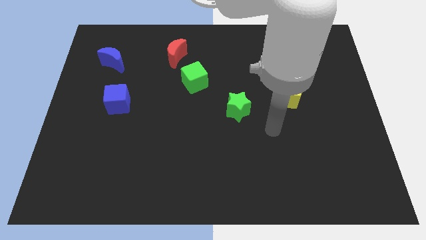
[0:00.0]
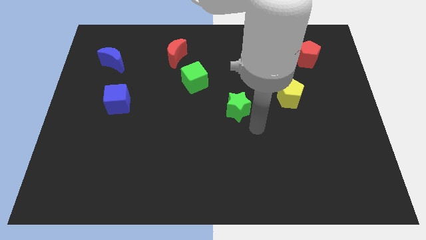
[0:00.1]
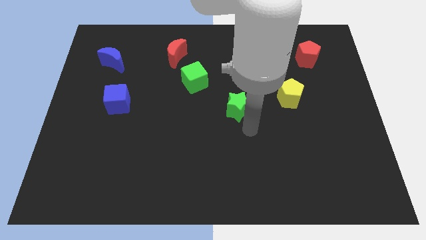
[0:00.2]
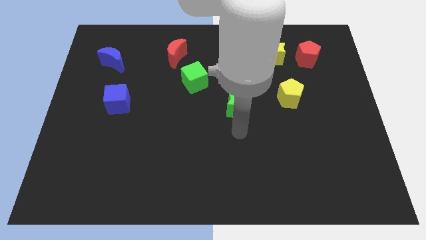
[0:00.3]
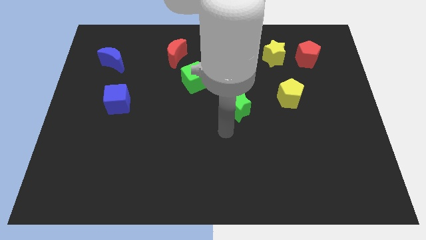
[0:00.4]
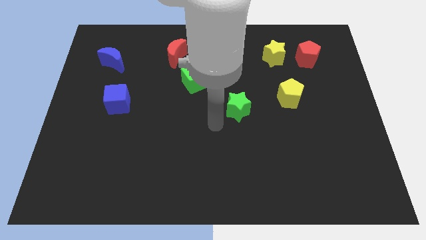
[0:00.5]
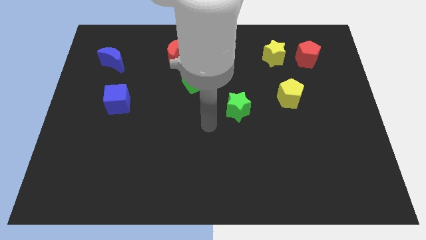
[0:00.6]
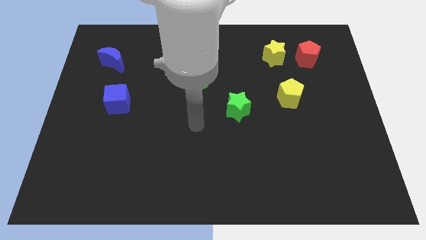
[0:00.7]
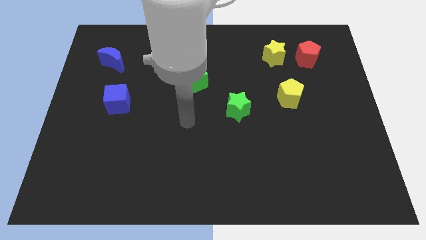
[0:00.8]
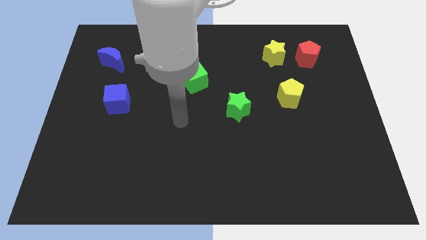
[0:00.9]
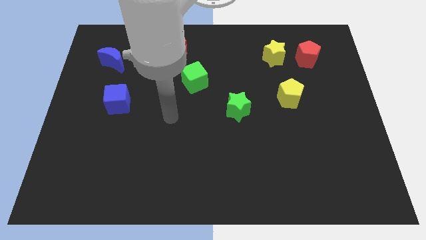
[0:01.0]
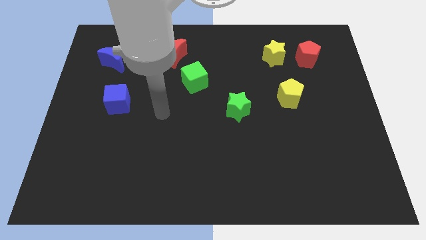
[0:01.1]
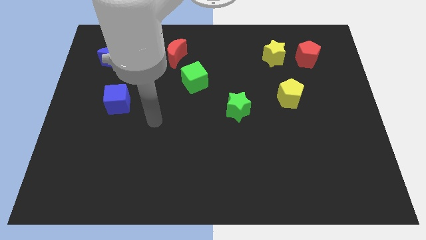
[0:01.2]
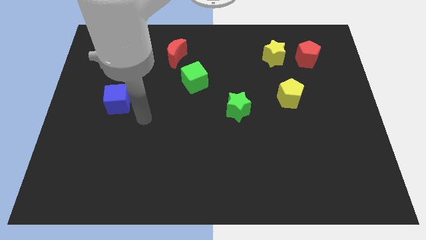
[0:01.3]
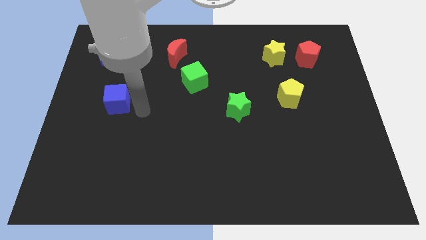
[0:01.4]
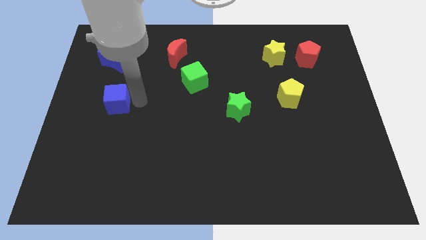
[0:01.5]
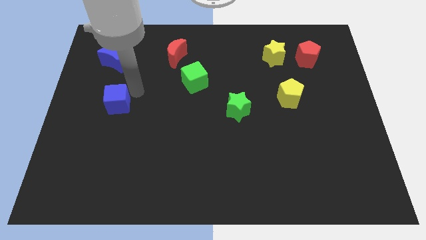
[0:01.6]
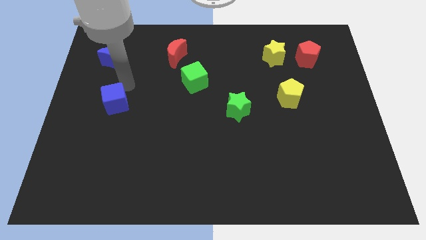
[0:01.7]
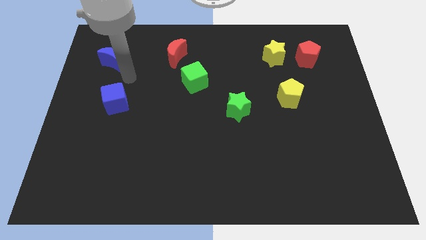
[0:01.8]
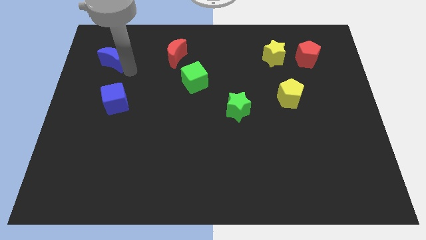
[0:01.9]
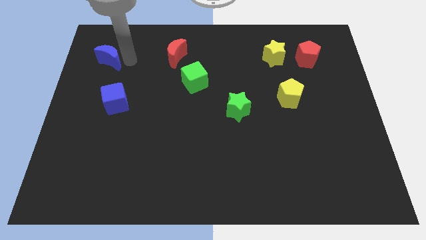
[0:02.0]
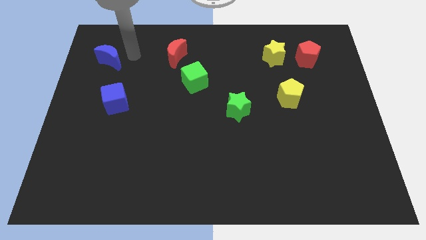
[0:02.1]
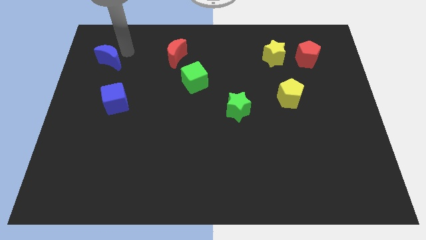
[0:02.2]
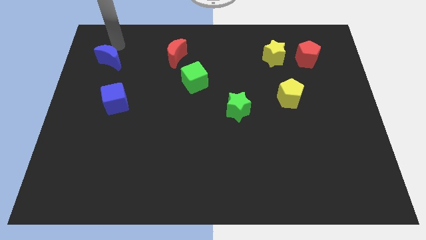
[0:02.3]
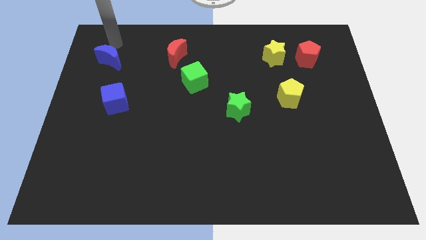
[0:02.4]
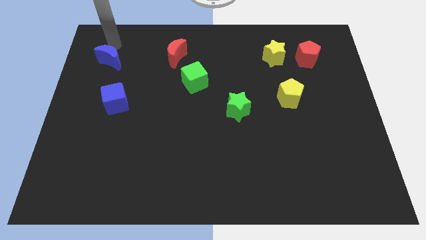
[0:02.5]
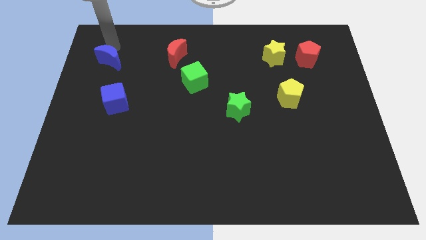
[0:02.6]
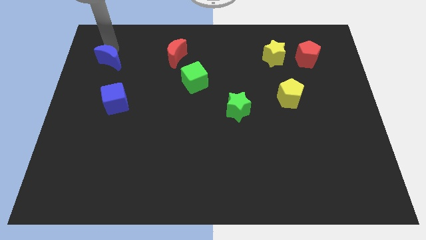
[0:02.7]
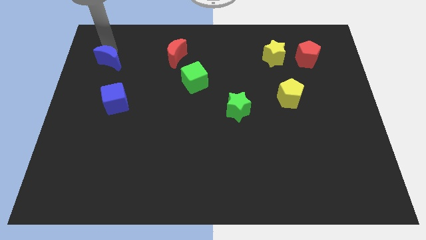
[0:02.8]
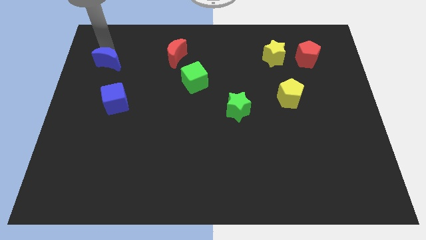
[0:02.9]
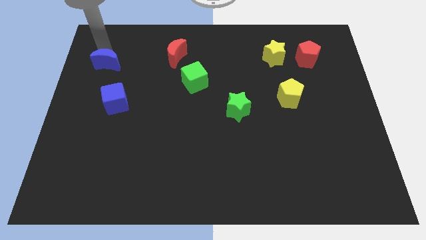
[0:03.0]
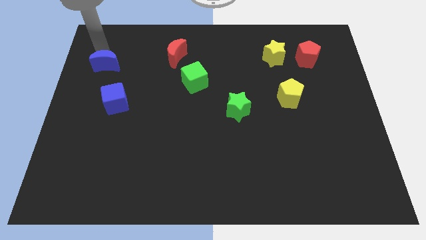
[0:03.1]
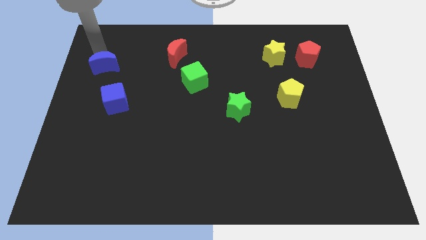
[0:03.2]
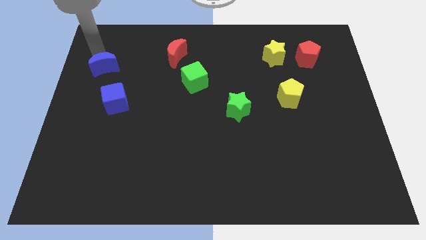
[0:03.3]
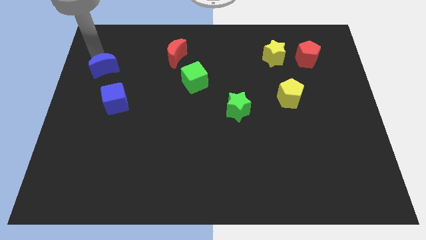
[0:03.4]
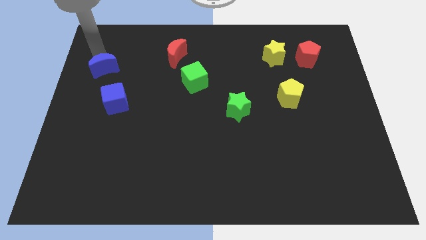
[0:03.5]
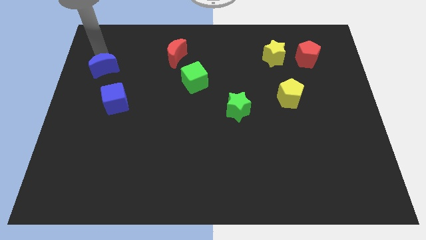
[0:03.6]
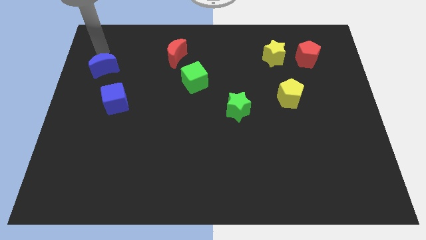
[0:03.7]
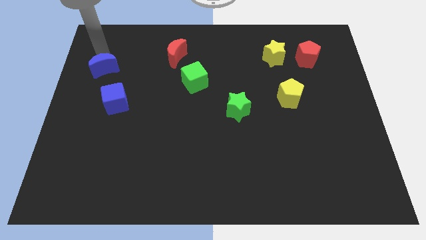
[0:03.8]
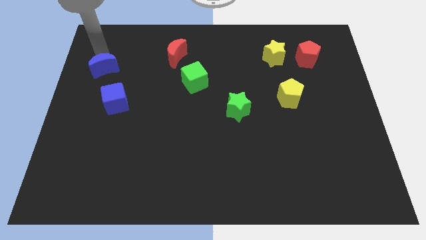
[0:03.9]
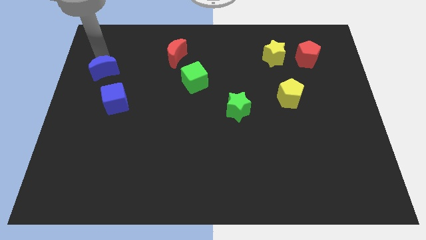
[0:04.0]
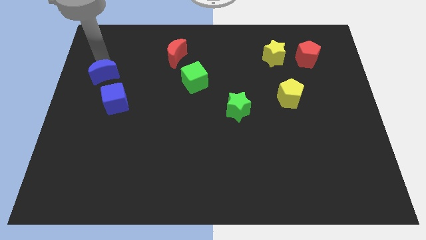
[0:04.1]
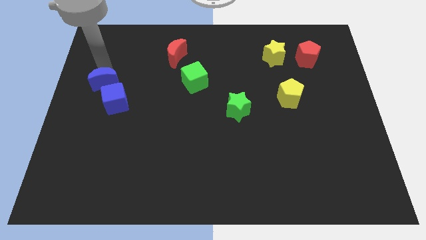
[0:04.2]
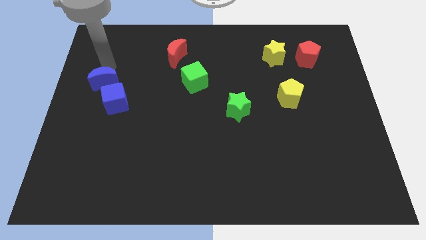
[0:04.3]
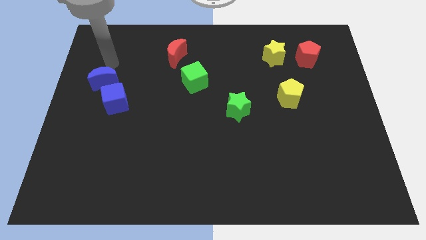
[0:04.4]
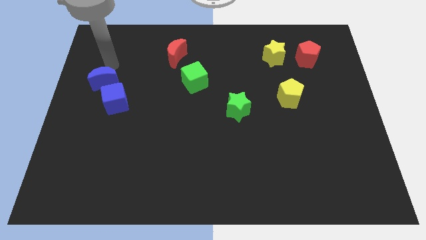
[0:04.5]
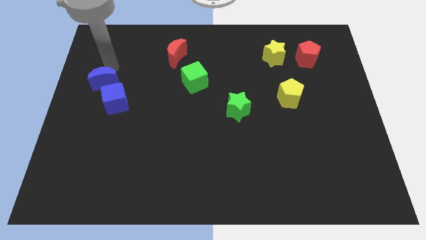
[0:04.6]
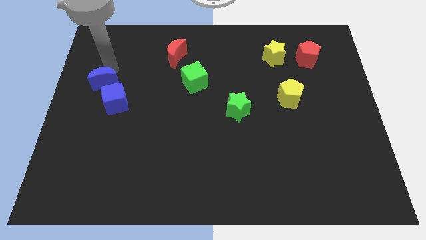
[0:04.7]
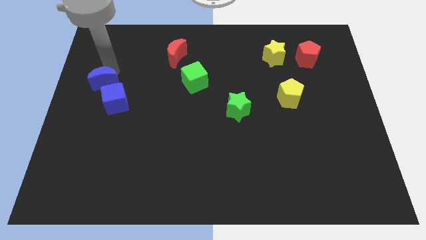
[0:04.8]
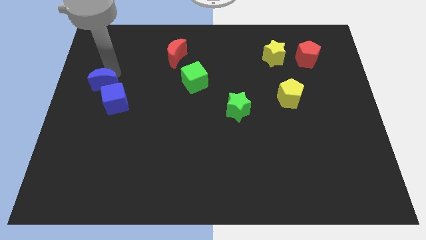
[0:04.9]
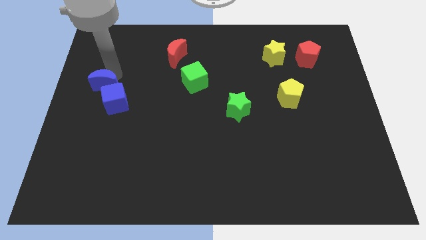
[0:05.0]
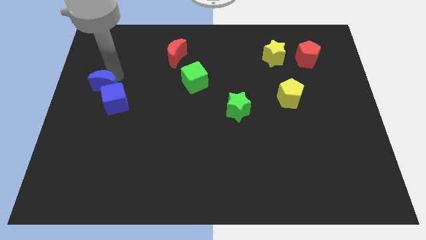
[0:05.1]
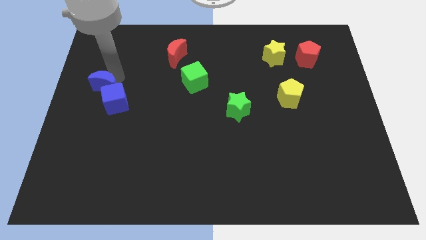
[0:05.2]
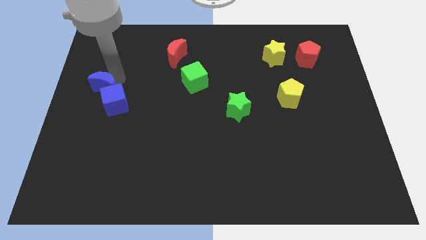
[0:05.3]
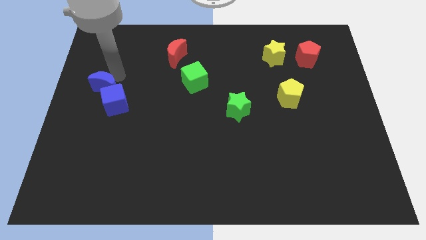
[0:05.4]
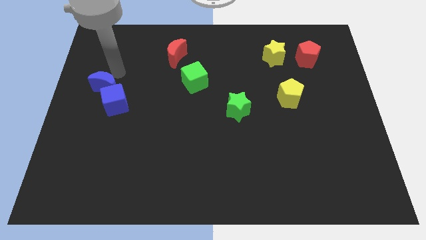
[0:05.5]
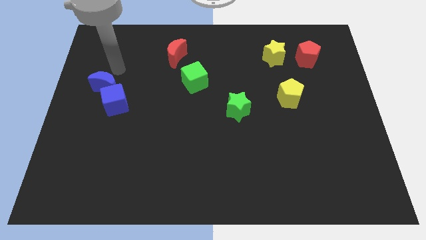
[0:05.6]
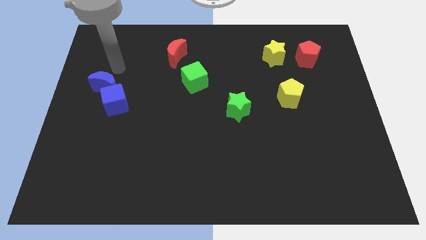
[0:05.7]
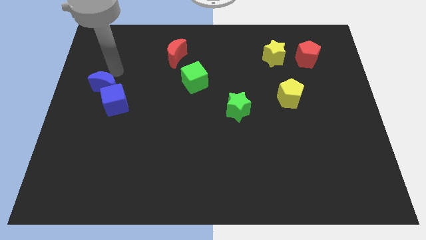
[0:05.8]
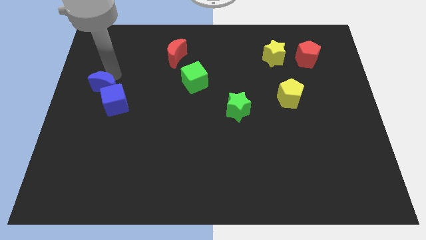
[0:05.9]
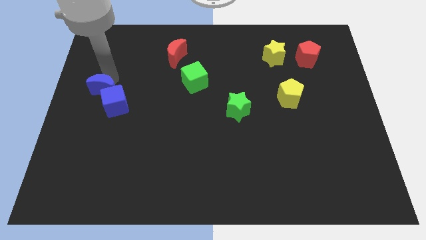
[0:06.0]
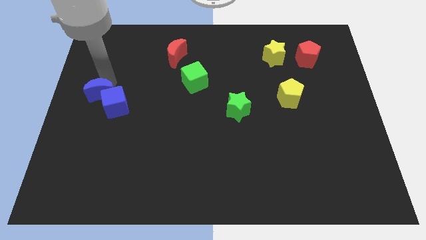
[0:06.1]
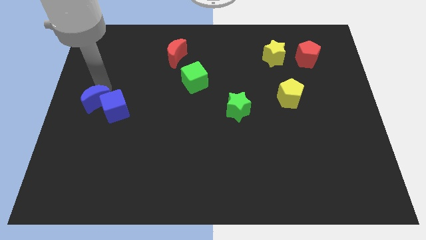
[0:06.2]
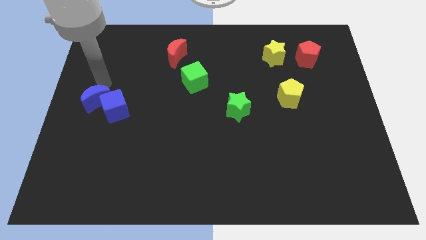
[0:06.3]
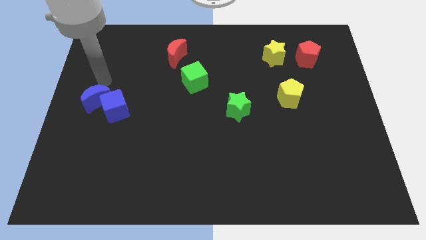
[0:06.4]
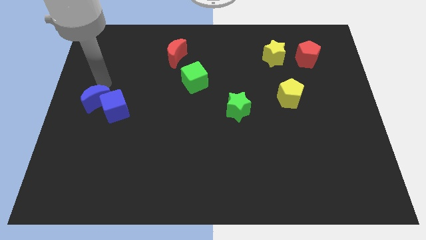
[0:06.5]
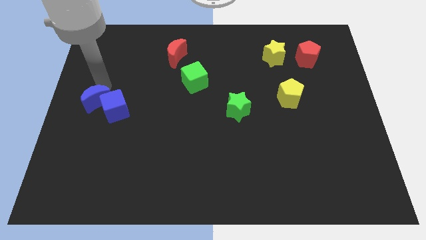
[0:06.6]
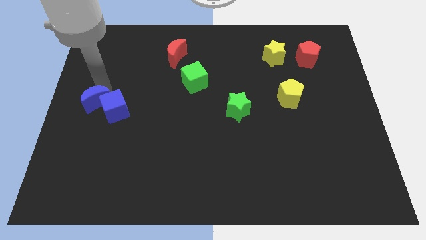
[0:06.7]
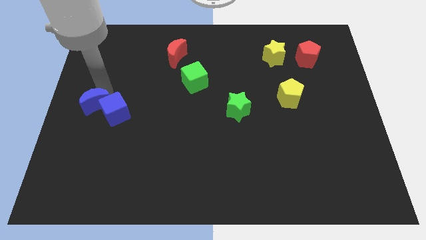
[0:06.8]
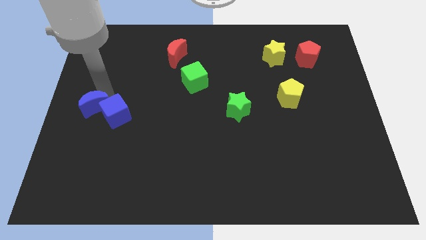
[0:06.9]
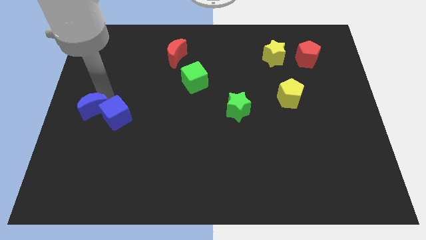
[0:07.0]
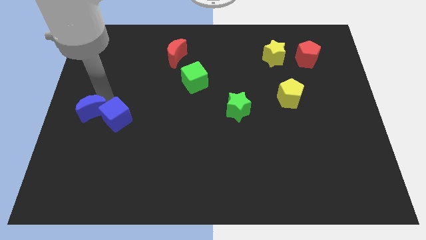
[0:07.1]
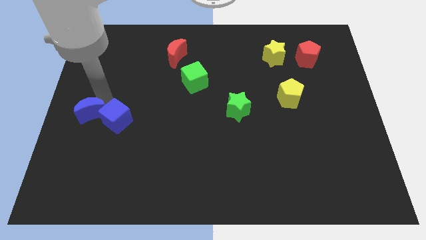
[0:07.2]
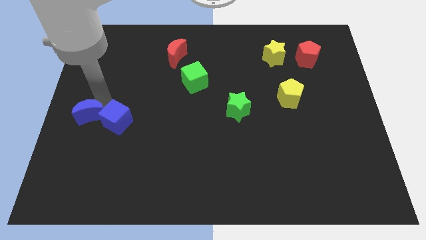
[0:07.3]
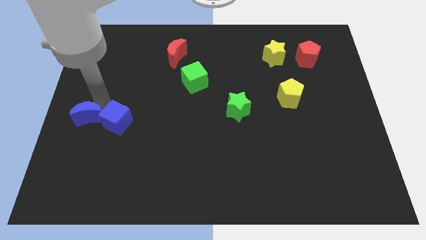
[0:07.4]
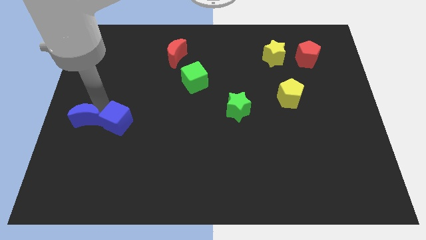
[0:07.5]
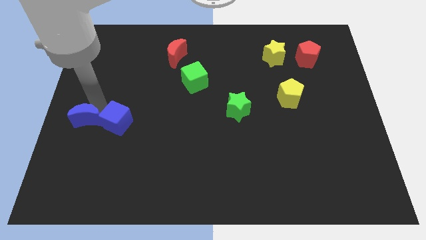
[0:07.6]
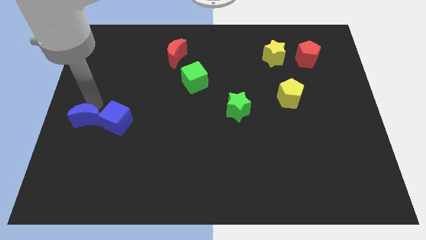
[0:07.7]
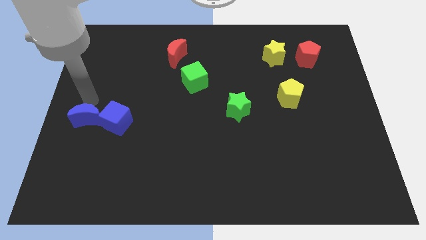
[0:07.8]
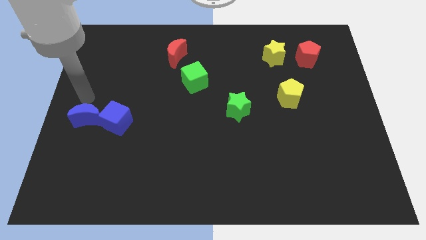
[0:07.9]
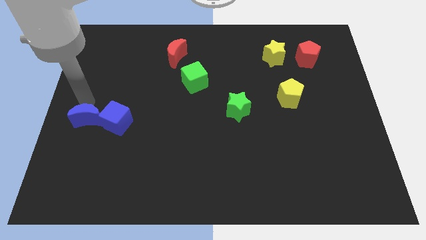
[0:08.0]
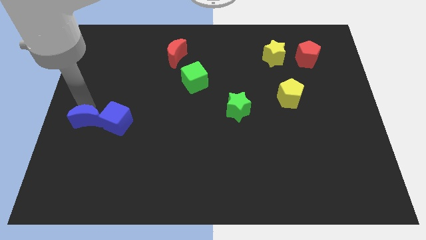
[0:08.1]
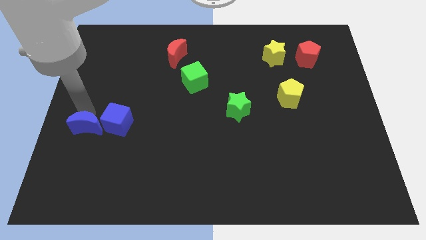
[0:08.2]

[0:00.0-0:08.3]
slide the blue moon to the bottom left side of the blue cube
